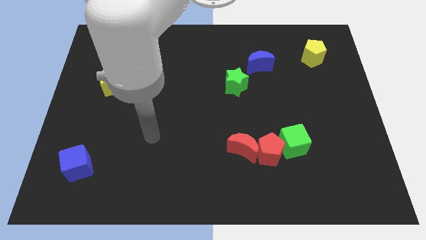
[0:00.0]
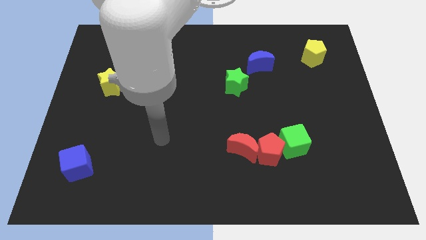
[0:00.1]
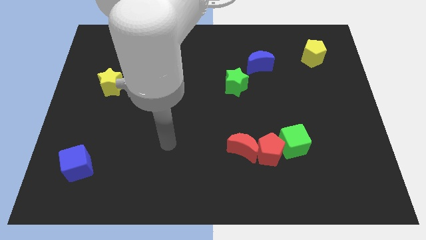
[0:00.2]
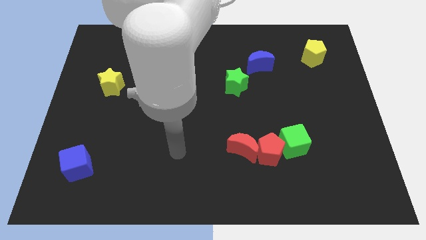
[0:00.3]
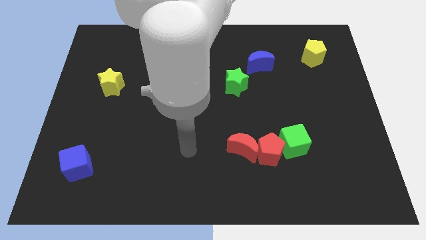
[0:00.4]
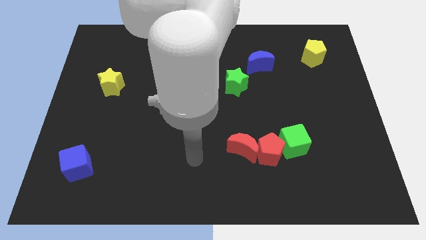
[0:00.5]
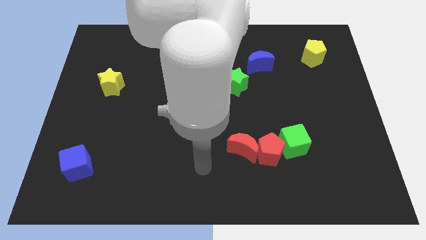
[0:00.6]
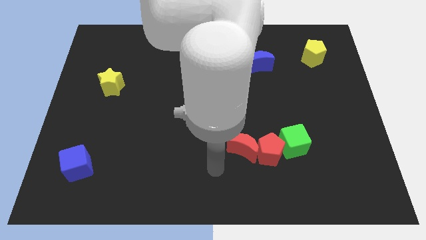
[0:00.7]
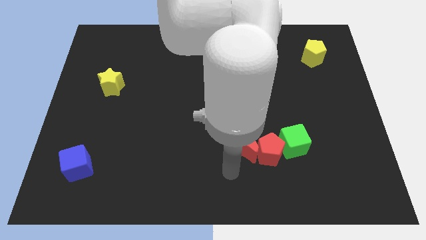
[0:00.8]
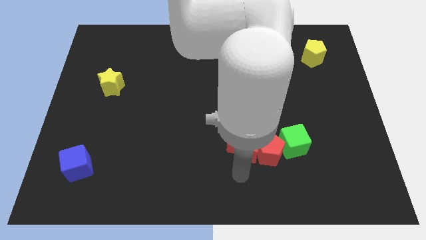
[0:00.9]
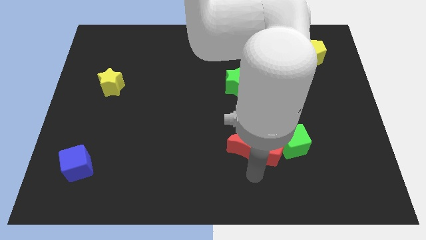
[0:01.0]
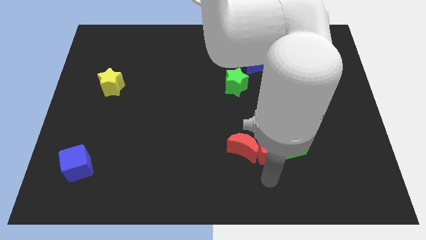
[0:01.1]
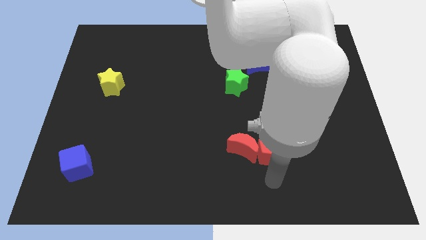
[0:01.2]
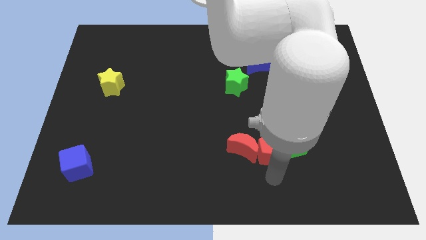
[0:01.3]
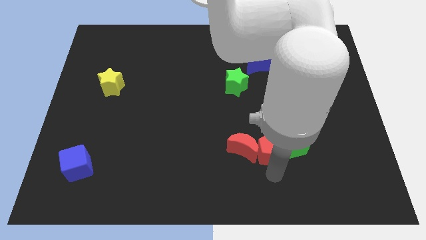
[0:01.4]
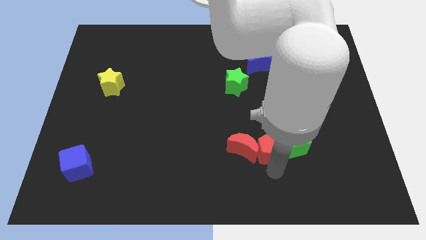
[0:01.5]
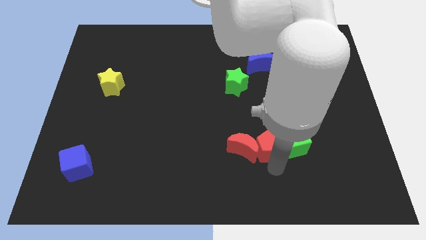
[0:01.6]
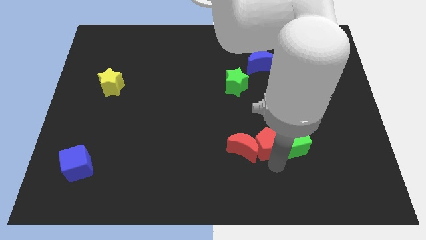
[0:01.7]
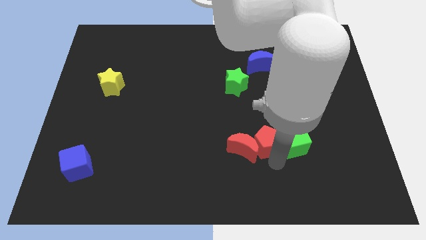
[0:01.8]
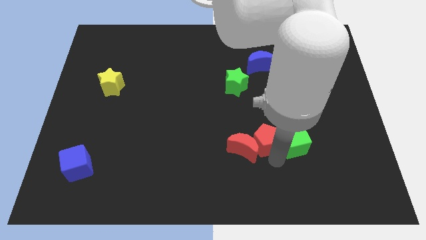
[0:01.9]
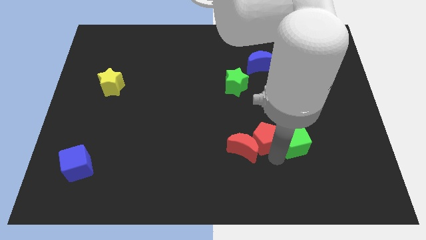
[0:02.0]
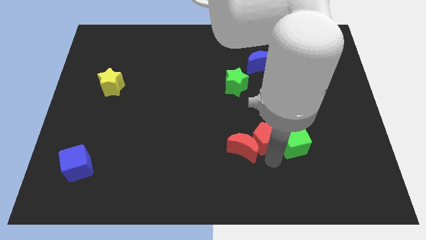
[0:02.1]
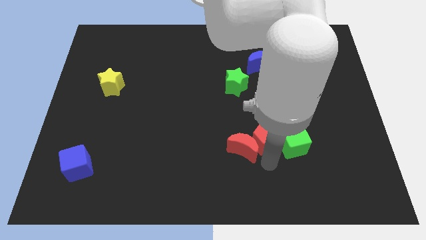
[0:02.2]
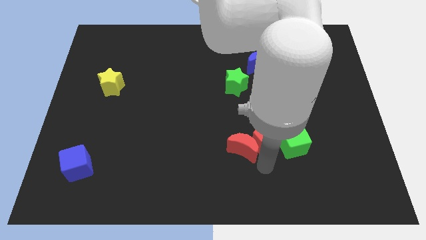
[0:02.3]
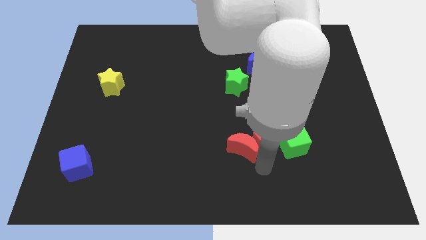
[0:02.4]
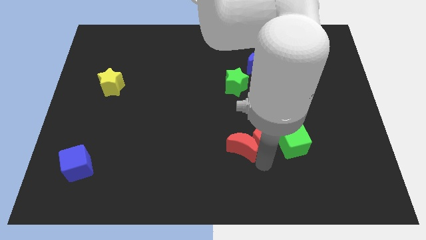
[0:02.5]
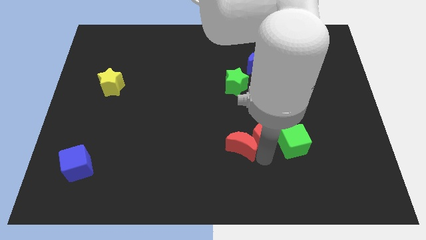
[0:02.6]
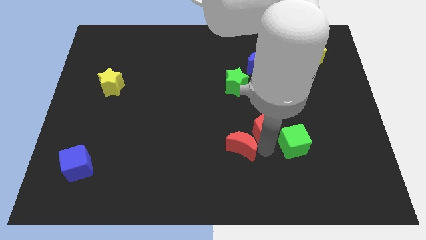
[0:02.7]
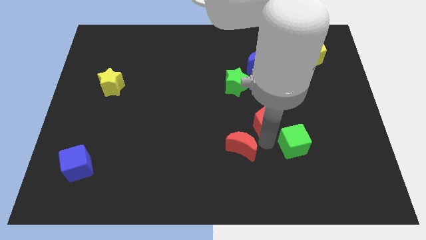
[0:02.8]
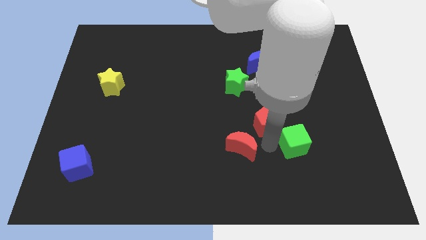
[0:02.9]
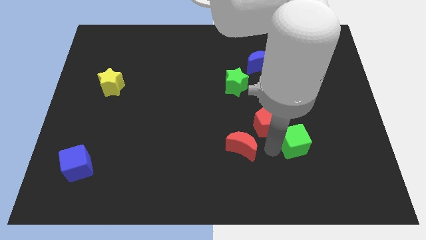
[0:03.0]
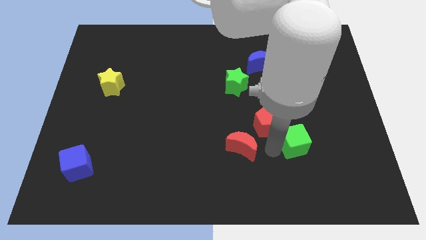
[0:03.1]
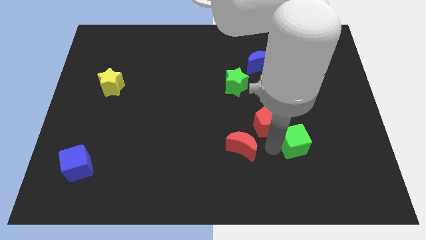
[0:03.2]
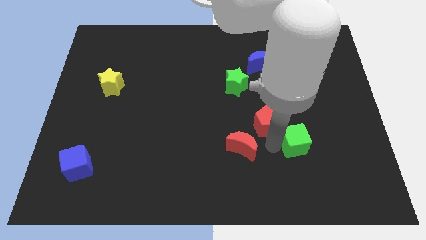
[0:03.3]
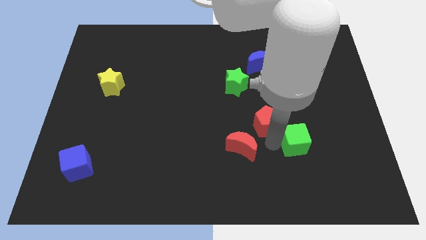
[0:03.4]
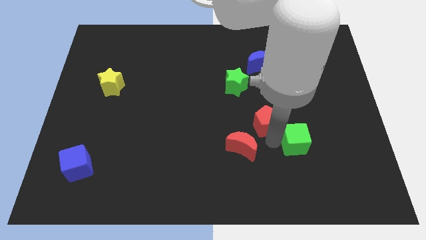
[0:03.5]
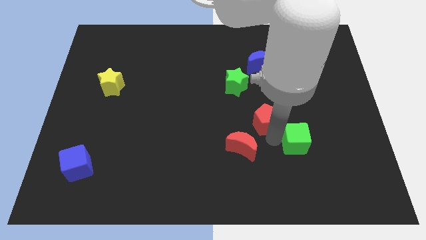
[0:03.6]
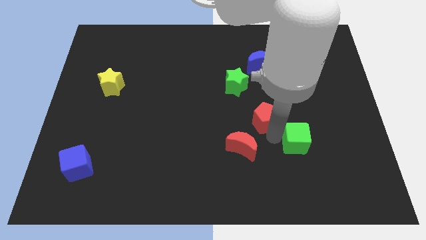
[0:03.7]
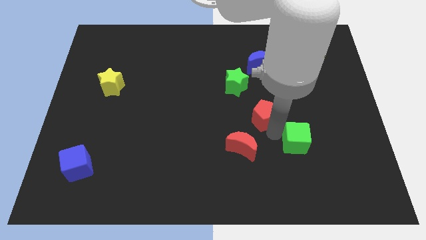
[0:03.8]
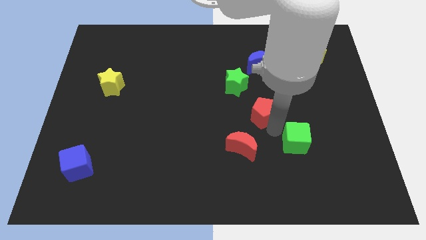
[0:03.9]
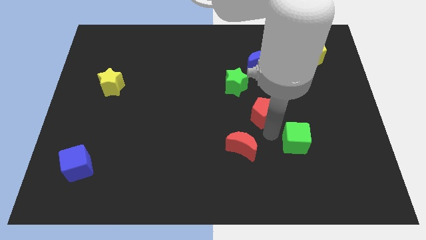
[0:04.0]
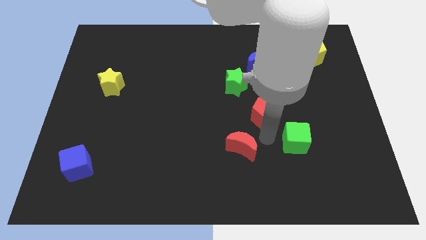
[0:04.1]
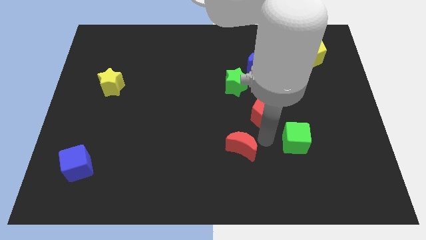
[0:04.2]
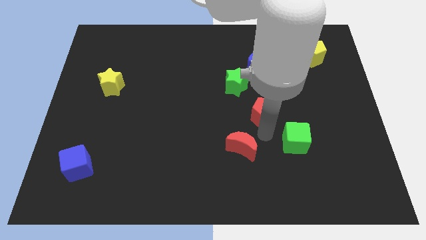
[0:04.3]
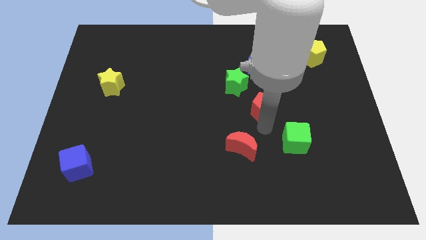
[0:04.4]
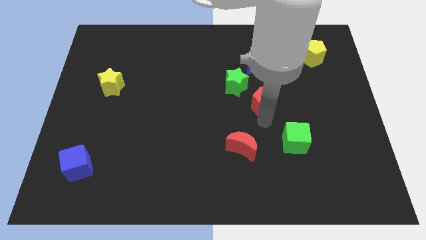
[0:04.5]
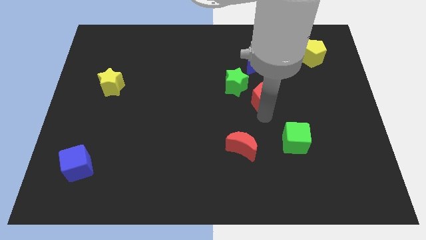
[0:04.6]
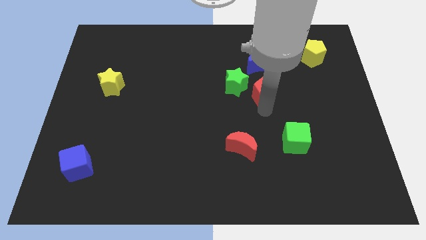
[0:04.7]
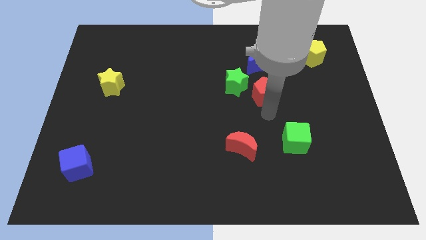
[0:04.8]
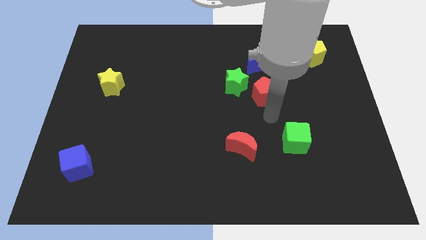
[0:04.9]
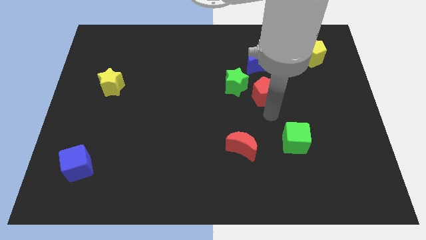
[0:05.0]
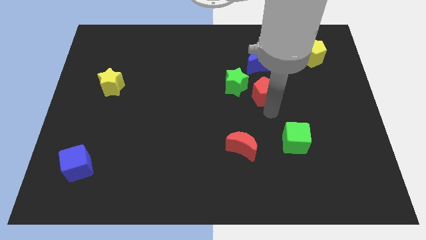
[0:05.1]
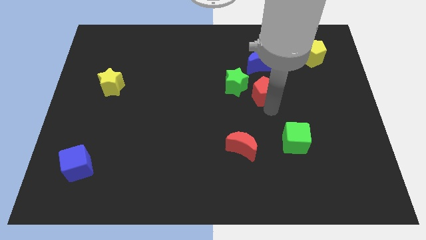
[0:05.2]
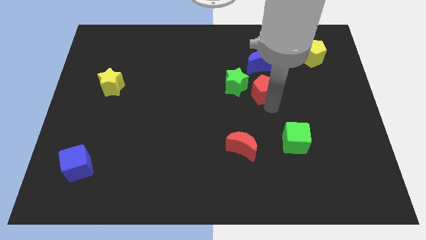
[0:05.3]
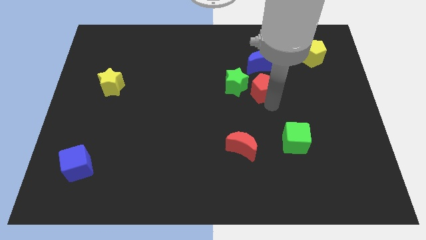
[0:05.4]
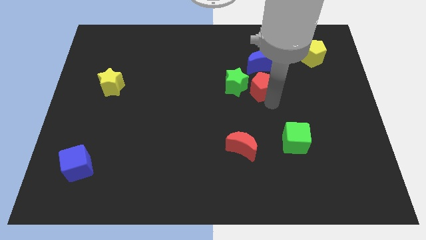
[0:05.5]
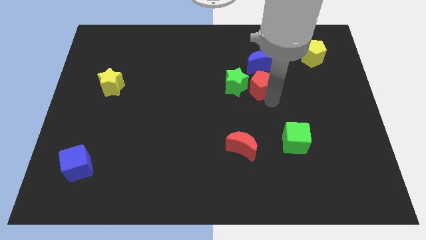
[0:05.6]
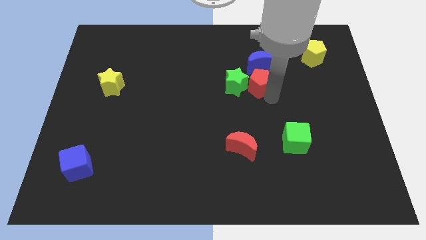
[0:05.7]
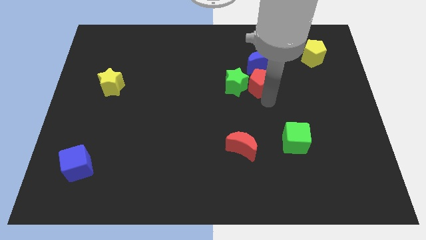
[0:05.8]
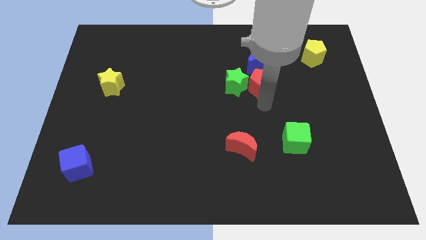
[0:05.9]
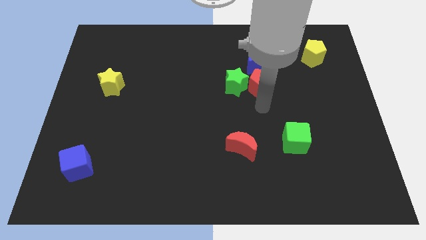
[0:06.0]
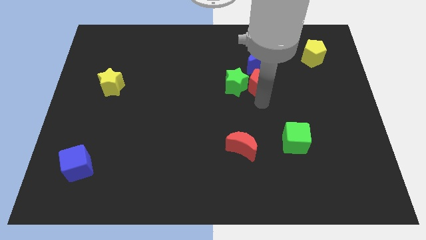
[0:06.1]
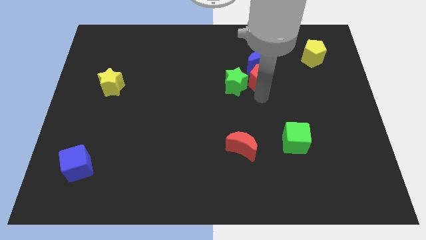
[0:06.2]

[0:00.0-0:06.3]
push the red pentagon next to the blue moon

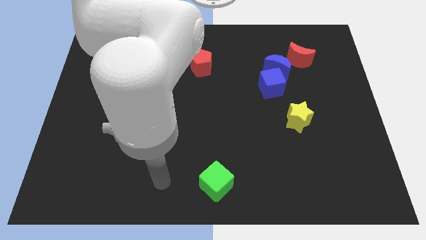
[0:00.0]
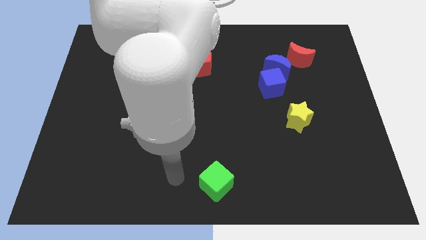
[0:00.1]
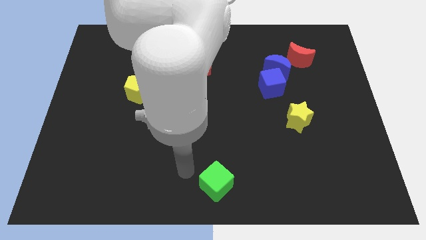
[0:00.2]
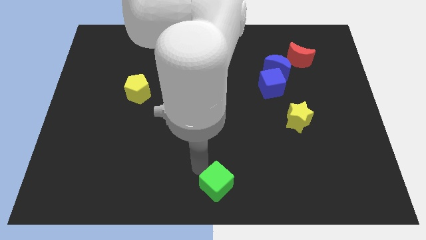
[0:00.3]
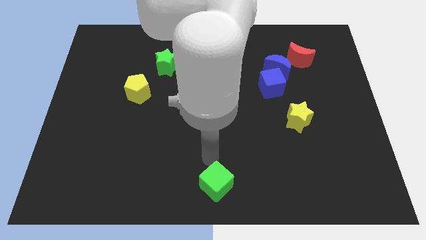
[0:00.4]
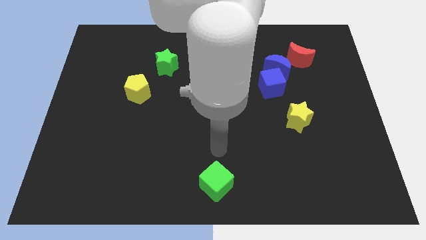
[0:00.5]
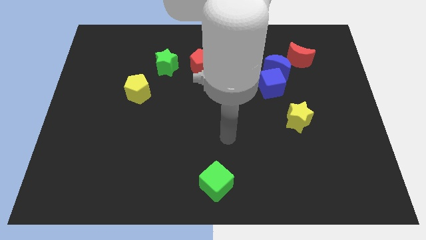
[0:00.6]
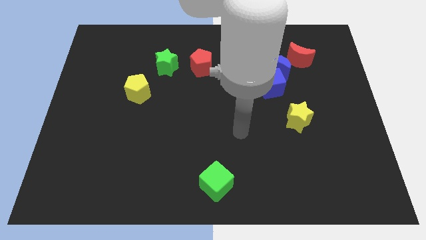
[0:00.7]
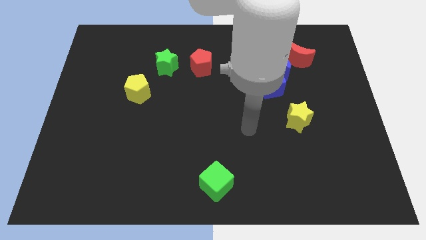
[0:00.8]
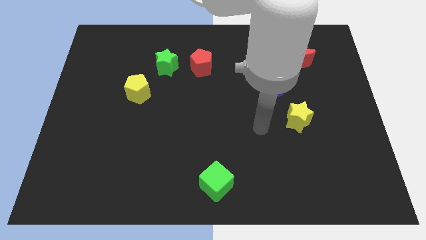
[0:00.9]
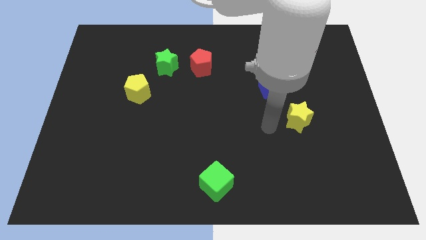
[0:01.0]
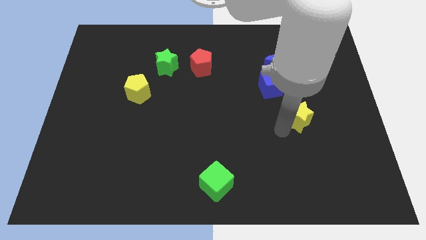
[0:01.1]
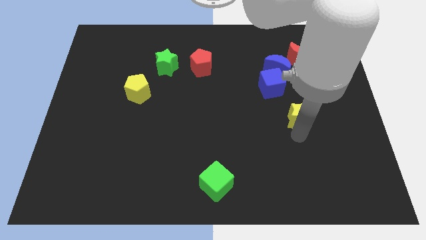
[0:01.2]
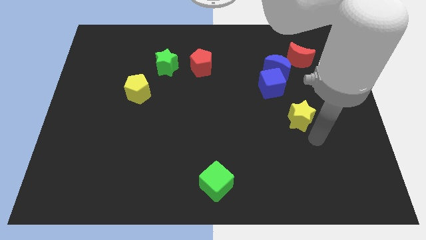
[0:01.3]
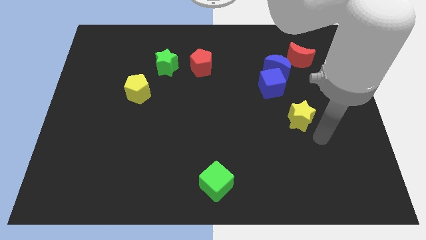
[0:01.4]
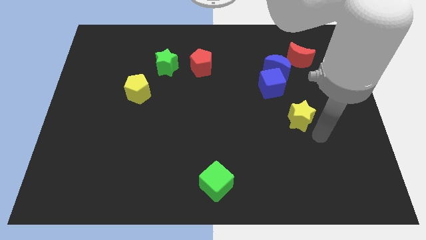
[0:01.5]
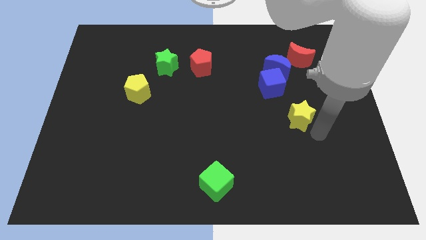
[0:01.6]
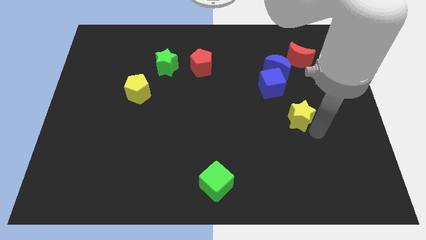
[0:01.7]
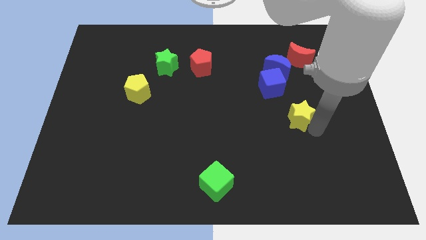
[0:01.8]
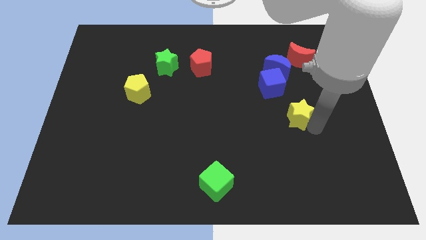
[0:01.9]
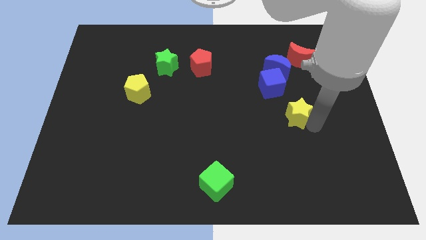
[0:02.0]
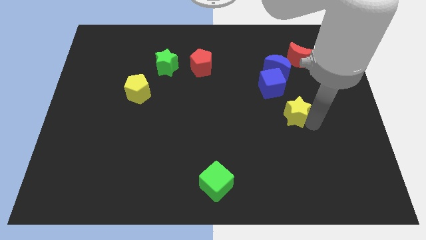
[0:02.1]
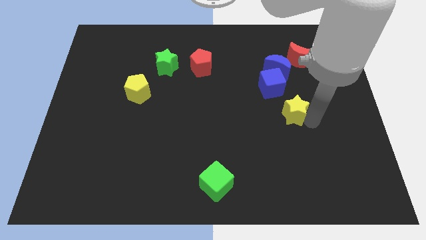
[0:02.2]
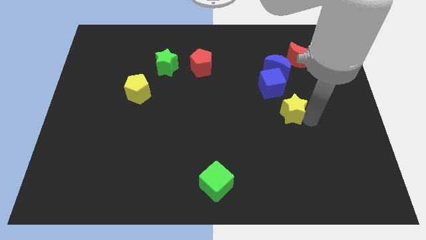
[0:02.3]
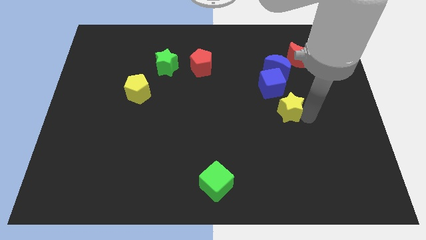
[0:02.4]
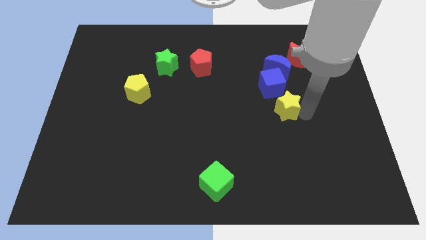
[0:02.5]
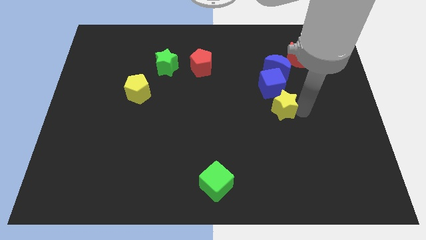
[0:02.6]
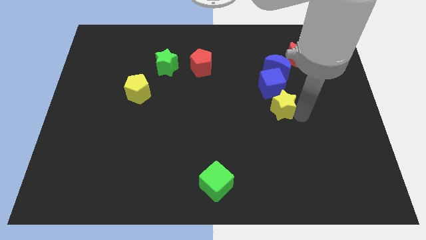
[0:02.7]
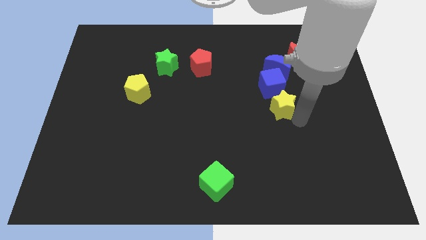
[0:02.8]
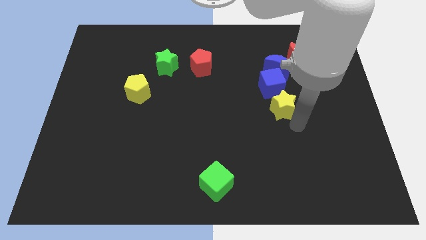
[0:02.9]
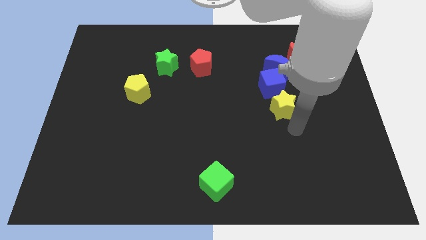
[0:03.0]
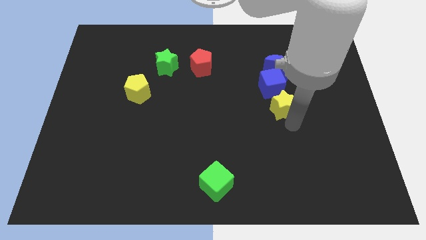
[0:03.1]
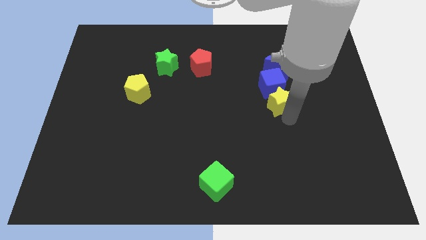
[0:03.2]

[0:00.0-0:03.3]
slide the yellow star next to the blue cube
